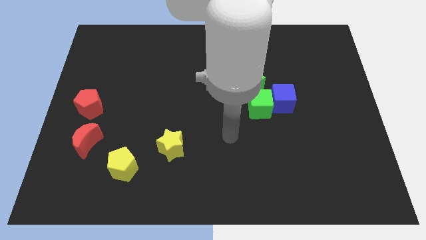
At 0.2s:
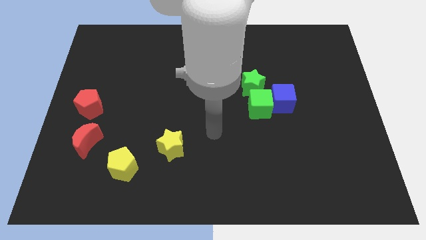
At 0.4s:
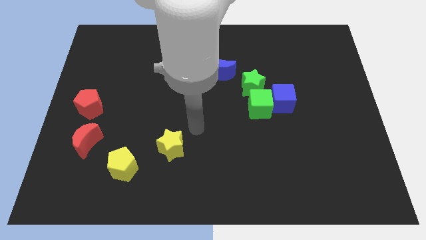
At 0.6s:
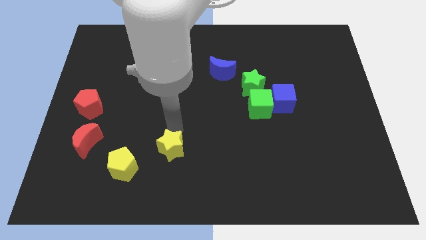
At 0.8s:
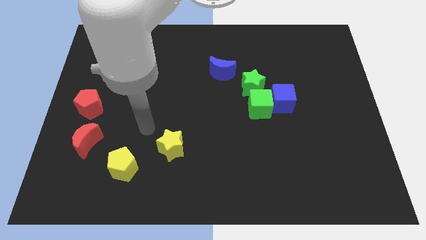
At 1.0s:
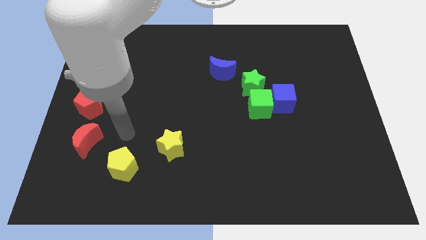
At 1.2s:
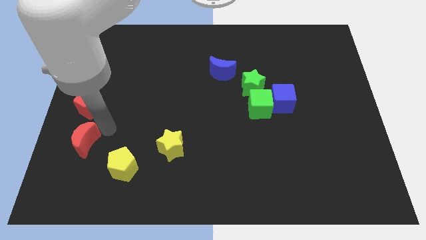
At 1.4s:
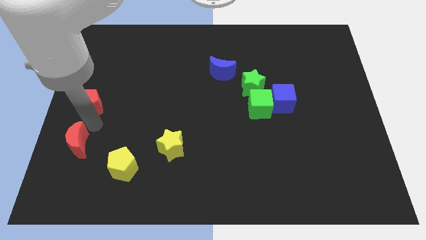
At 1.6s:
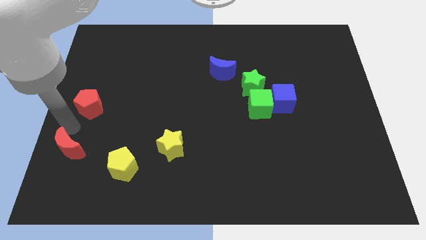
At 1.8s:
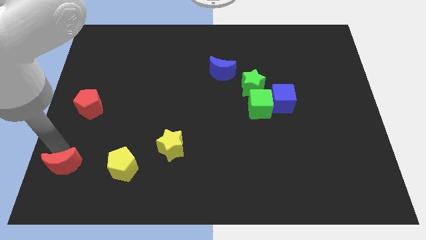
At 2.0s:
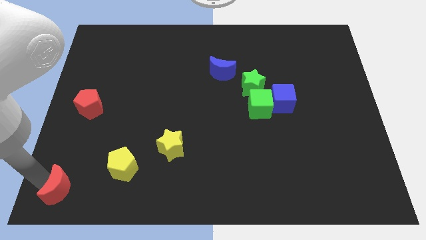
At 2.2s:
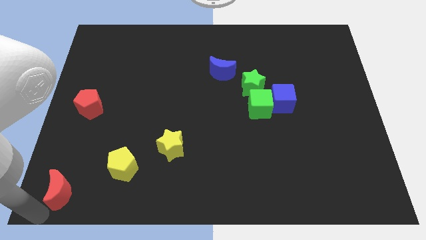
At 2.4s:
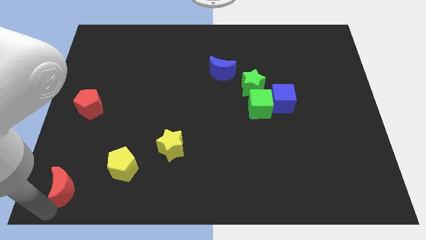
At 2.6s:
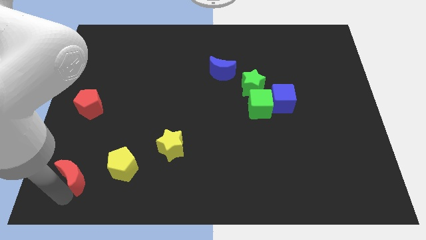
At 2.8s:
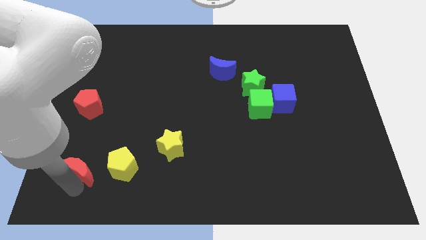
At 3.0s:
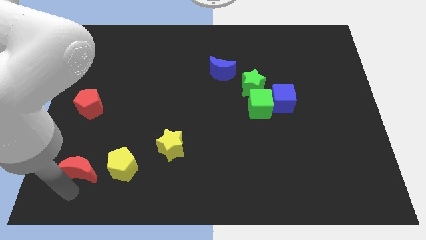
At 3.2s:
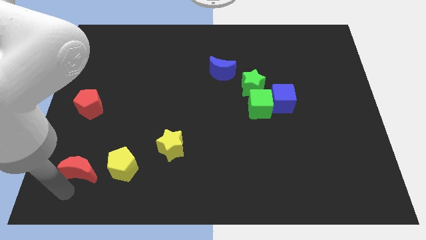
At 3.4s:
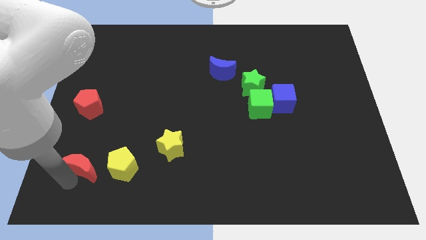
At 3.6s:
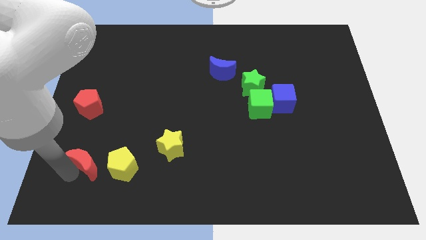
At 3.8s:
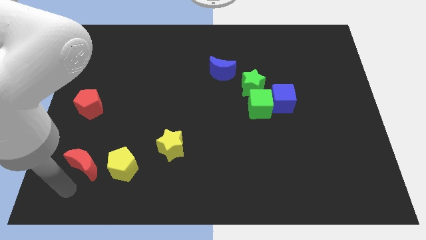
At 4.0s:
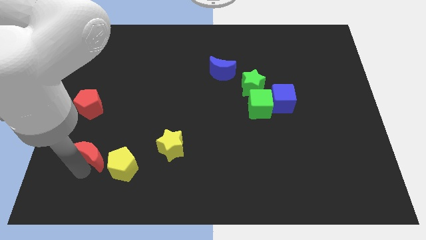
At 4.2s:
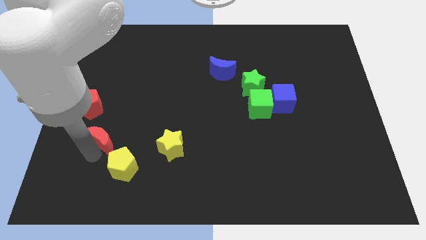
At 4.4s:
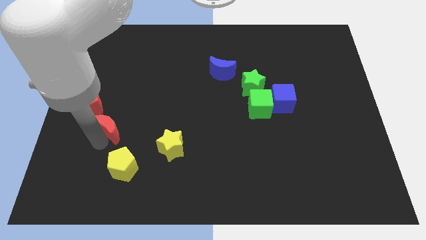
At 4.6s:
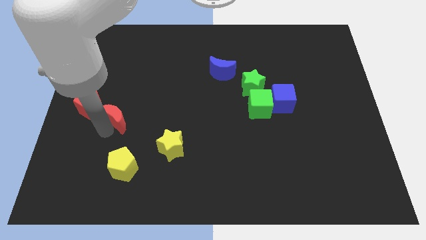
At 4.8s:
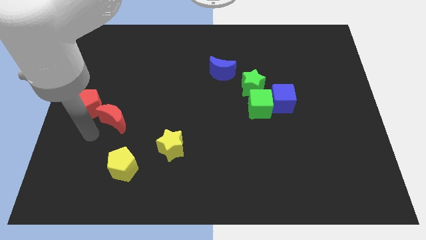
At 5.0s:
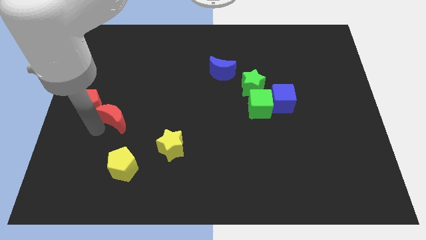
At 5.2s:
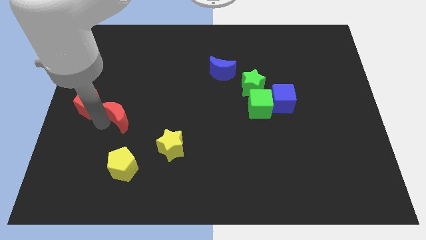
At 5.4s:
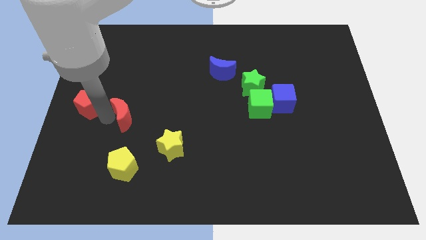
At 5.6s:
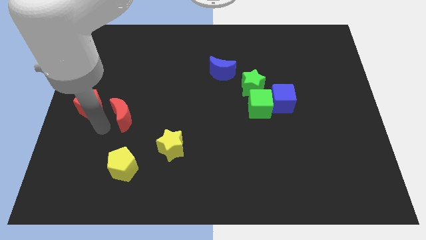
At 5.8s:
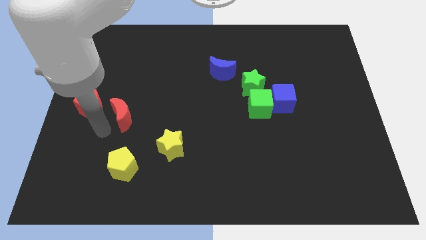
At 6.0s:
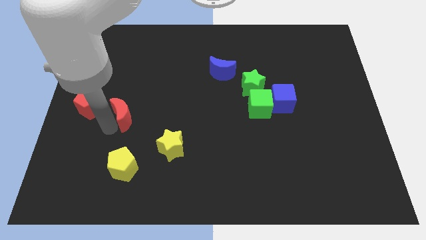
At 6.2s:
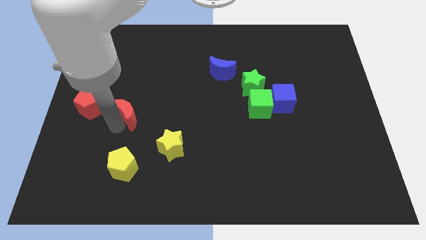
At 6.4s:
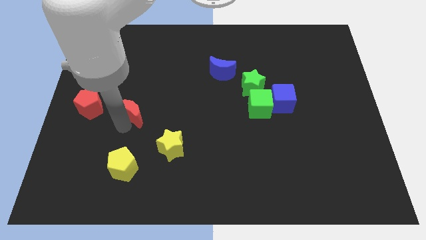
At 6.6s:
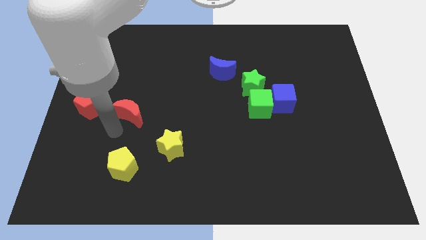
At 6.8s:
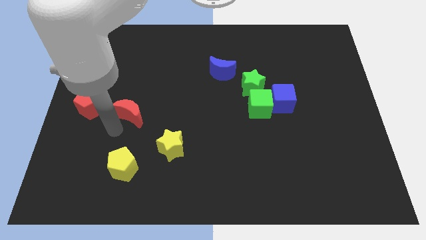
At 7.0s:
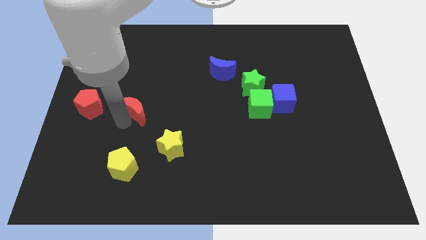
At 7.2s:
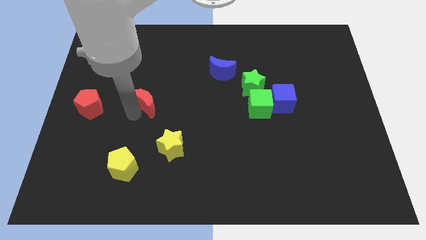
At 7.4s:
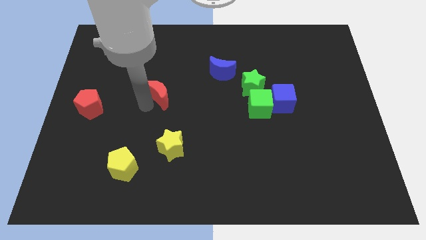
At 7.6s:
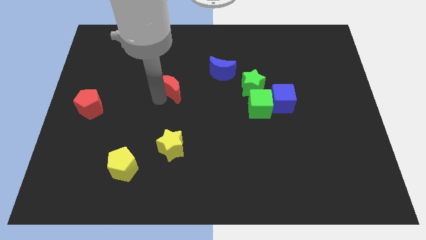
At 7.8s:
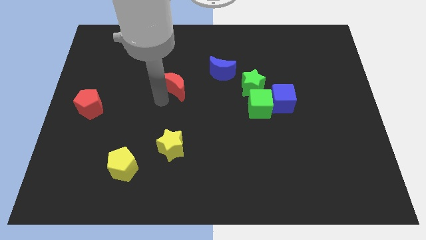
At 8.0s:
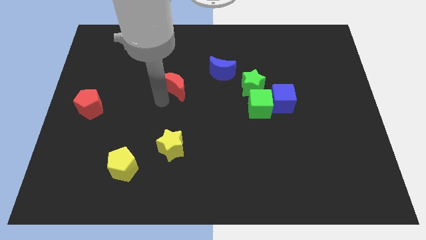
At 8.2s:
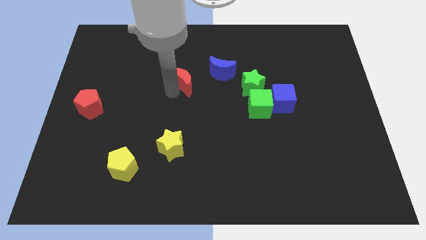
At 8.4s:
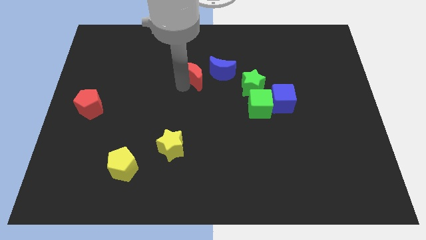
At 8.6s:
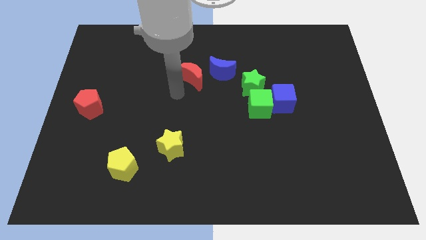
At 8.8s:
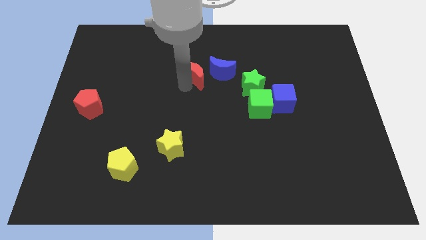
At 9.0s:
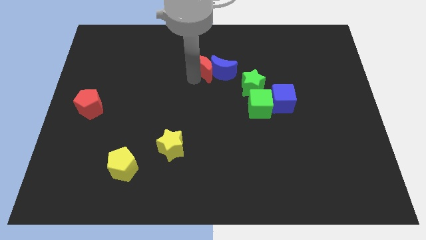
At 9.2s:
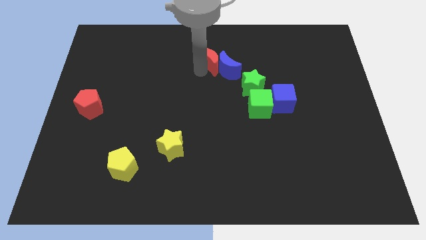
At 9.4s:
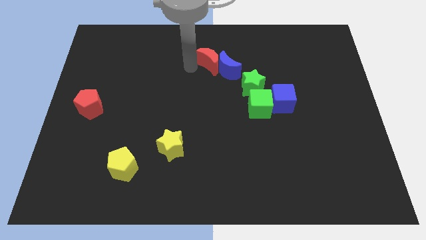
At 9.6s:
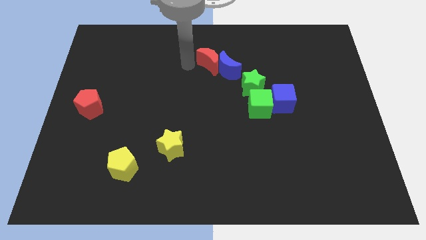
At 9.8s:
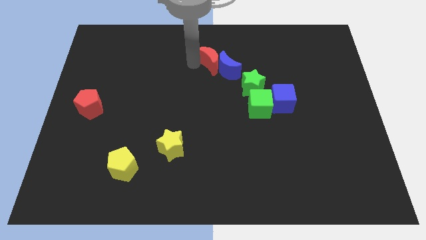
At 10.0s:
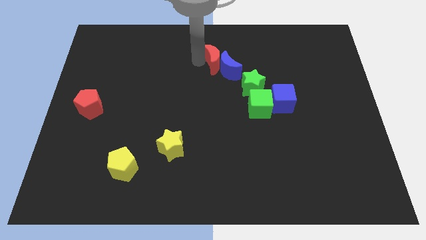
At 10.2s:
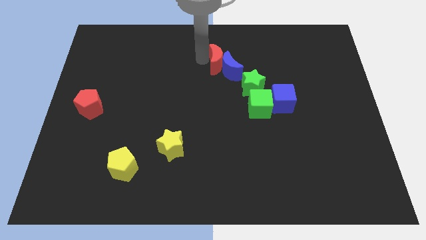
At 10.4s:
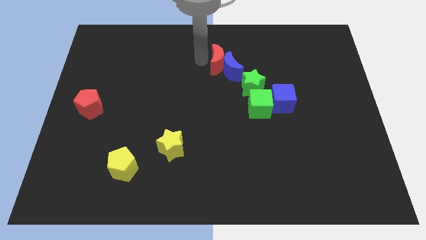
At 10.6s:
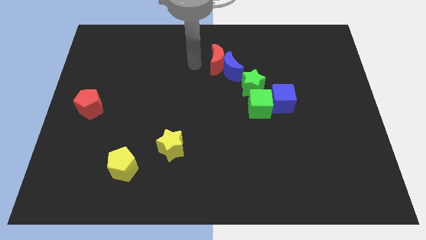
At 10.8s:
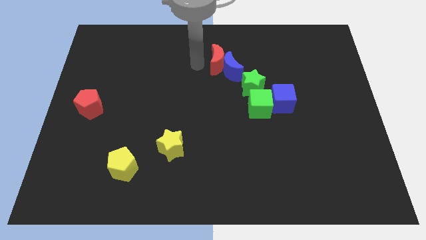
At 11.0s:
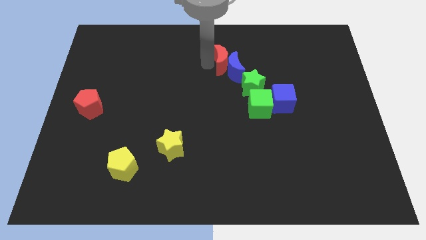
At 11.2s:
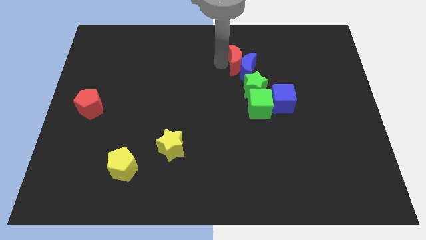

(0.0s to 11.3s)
put the red moon above the green star
